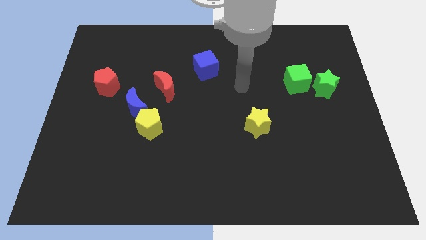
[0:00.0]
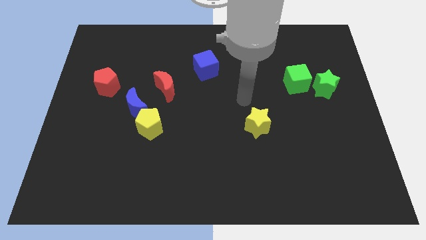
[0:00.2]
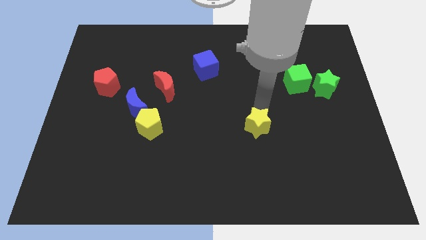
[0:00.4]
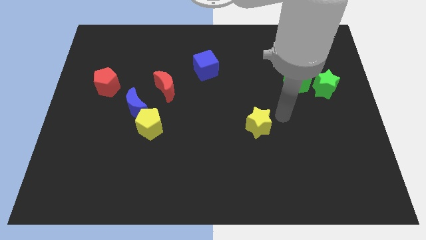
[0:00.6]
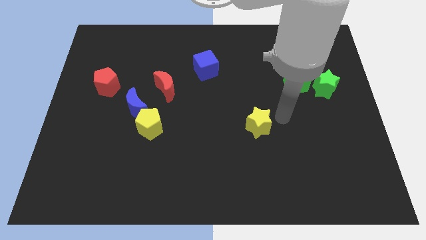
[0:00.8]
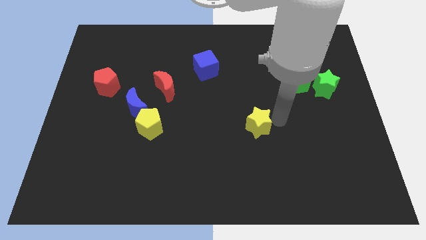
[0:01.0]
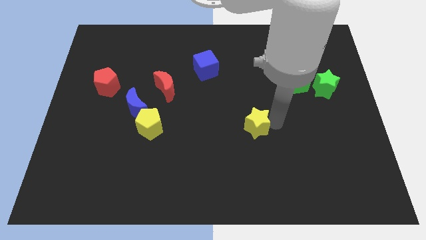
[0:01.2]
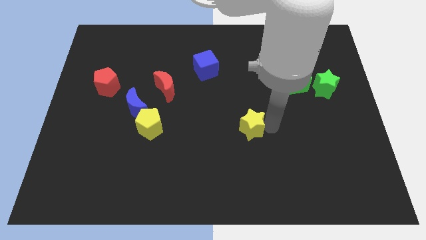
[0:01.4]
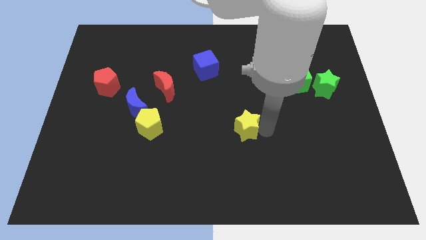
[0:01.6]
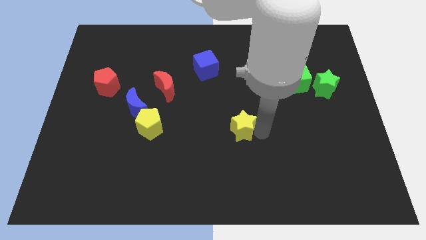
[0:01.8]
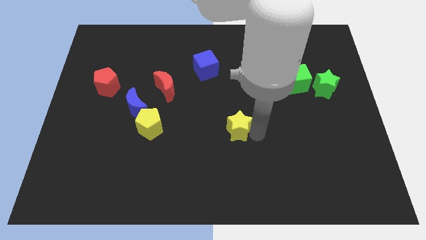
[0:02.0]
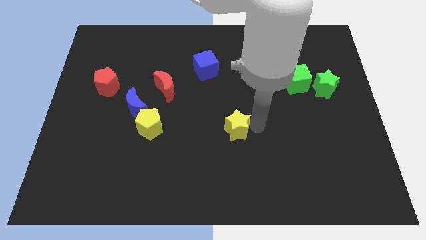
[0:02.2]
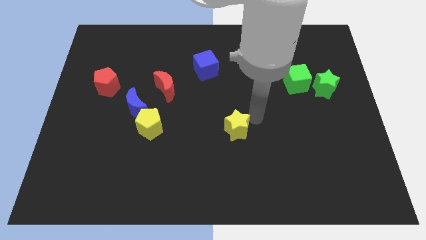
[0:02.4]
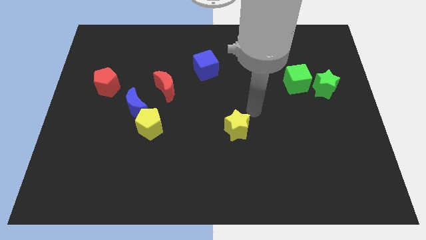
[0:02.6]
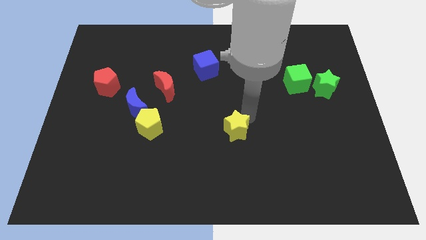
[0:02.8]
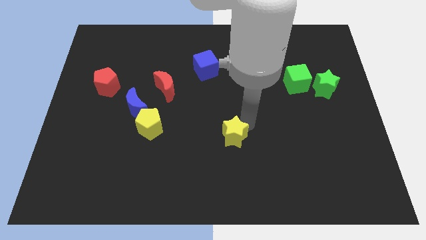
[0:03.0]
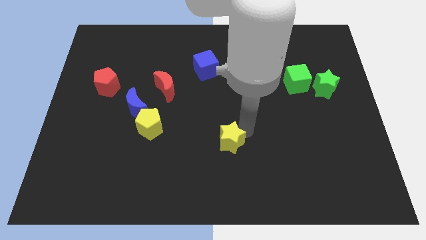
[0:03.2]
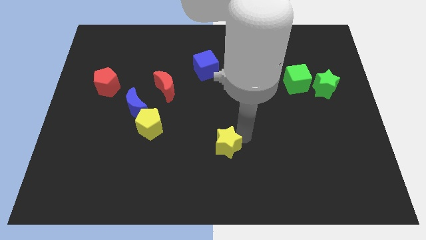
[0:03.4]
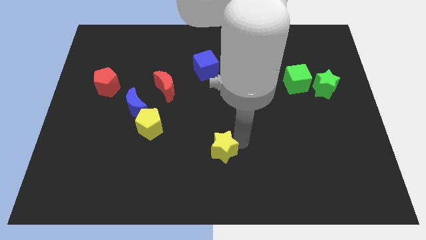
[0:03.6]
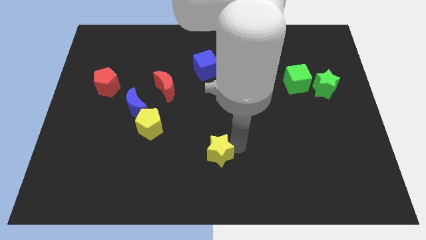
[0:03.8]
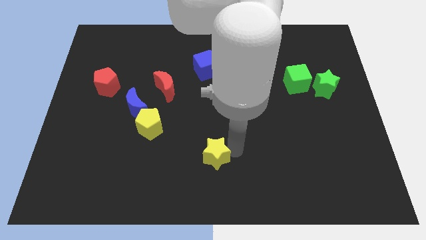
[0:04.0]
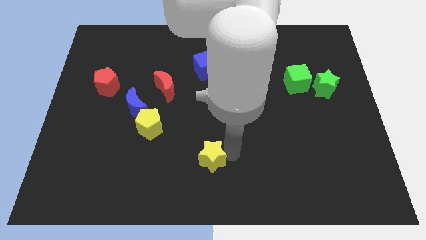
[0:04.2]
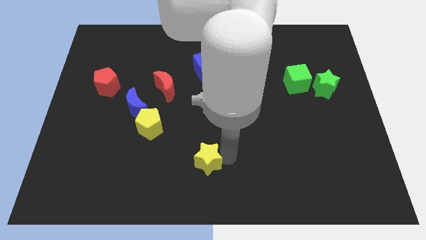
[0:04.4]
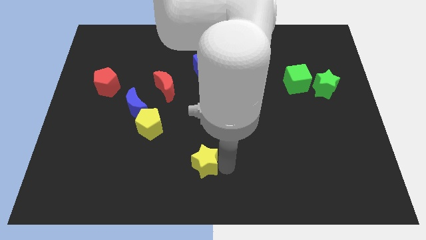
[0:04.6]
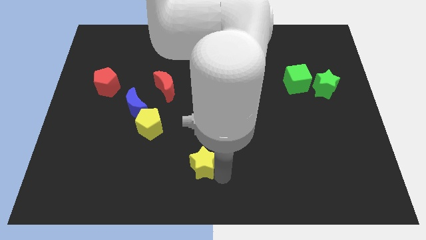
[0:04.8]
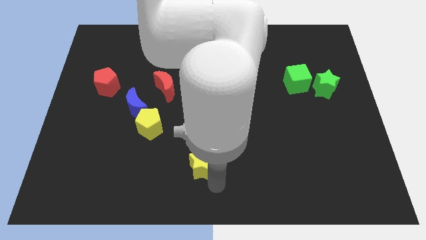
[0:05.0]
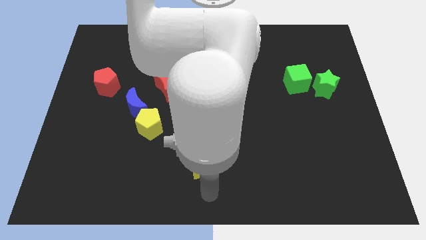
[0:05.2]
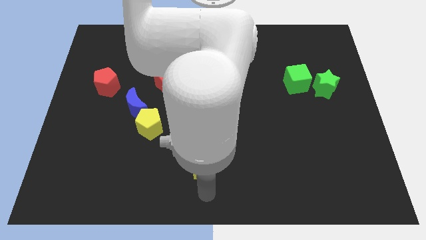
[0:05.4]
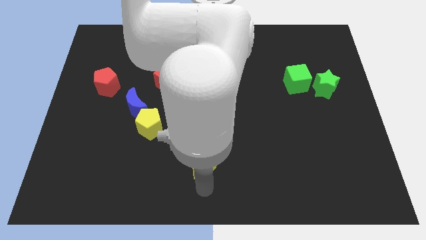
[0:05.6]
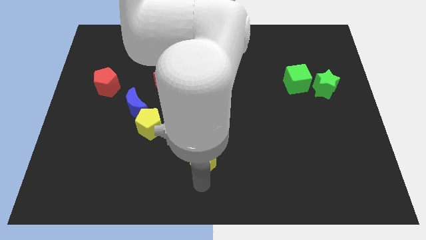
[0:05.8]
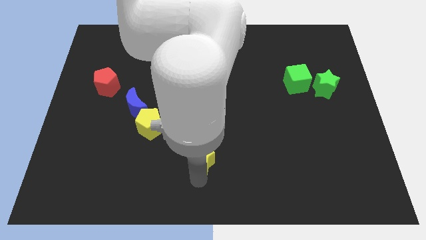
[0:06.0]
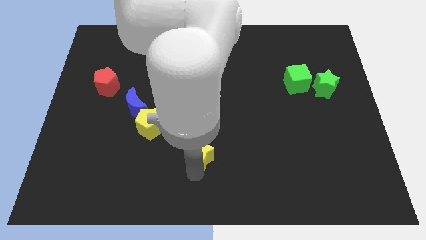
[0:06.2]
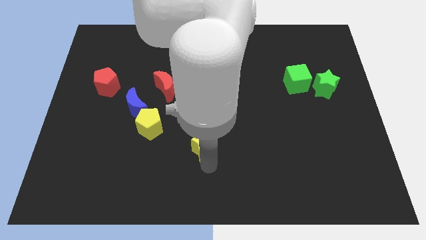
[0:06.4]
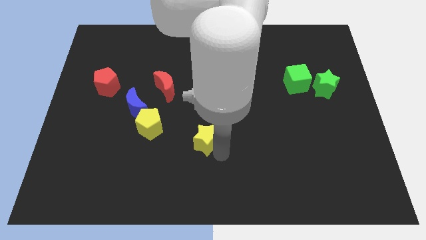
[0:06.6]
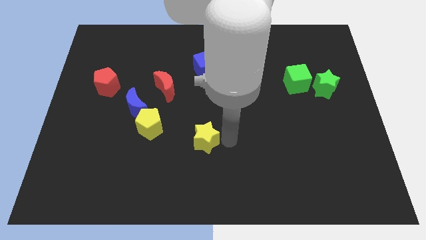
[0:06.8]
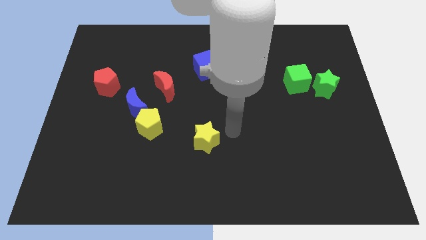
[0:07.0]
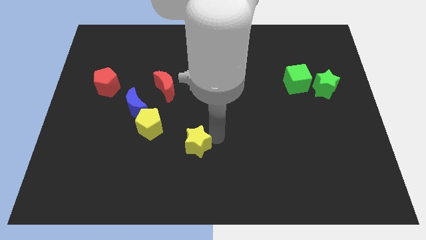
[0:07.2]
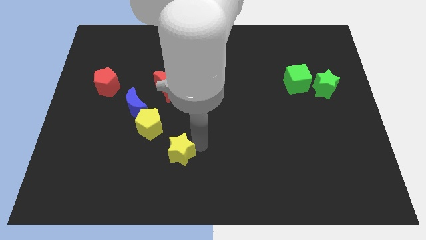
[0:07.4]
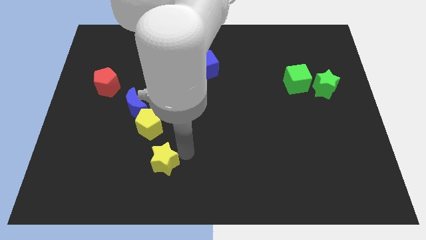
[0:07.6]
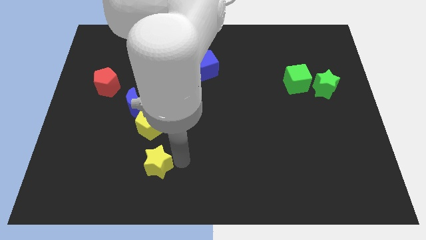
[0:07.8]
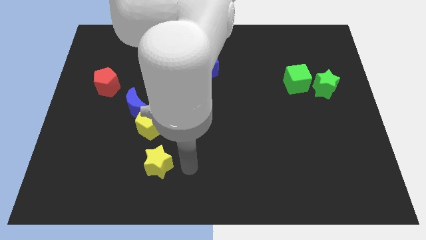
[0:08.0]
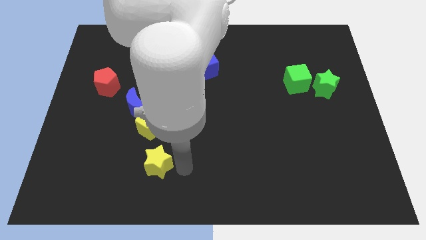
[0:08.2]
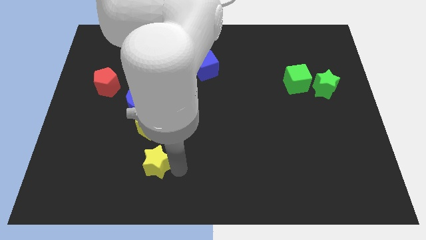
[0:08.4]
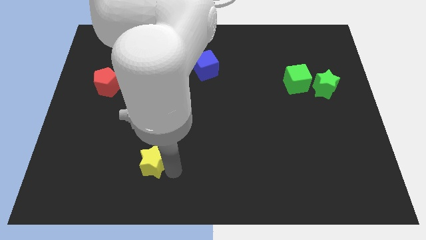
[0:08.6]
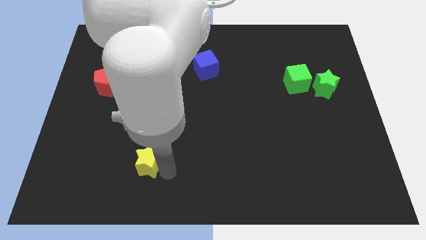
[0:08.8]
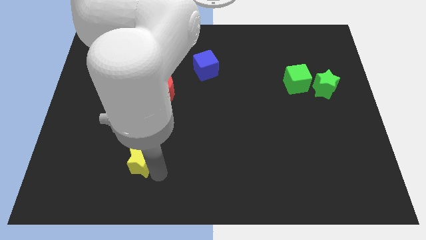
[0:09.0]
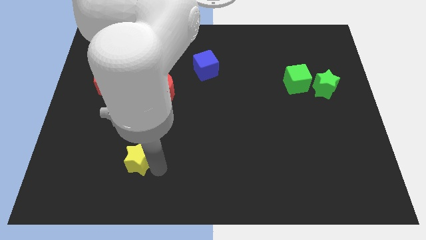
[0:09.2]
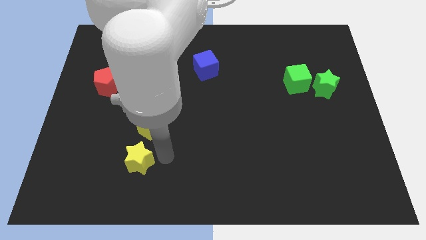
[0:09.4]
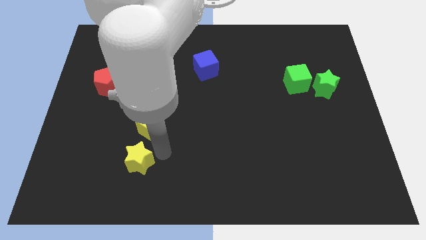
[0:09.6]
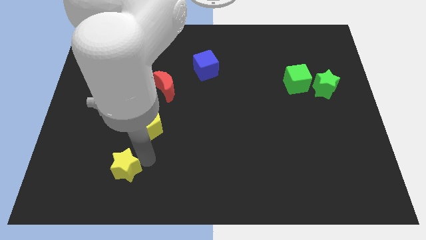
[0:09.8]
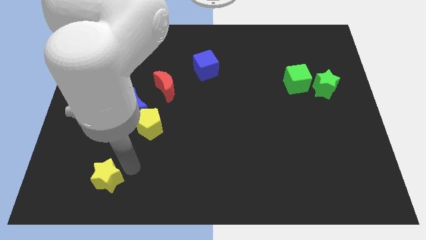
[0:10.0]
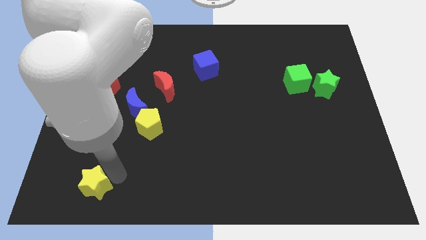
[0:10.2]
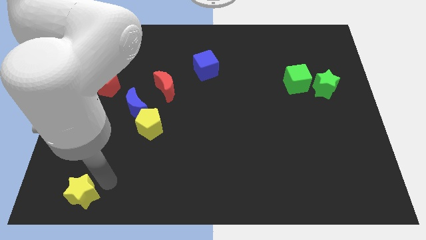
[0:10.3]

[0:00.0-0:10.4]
move the yellow star to the lower left corner

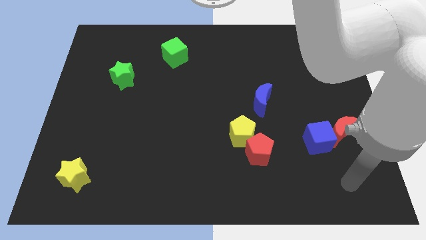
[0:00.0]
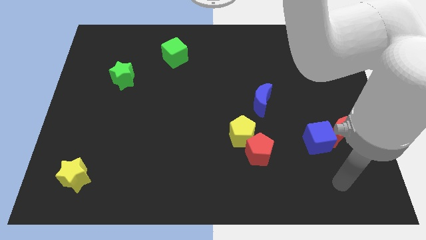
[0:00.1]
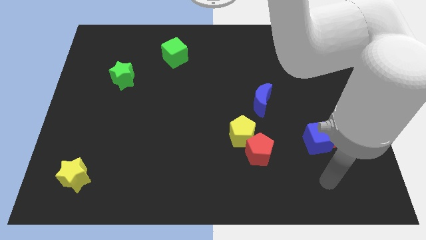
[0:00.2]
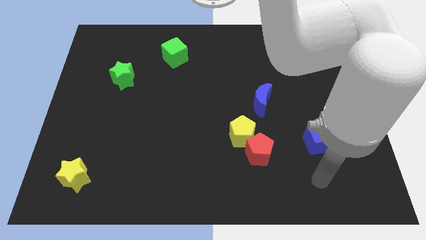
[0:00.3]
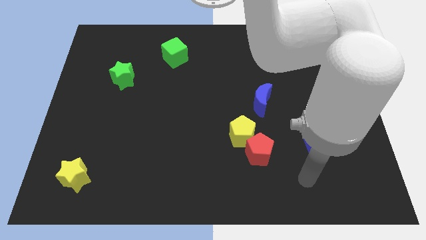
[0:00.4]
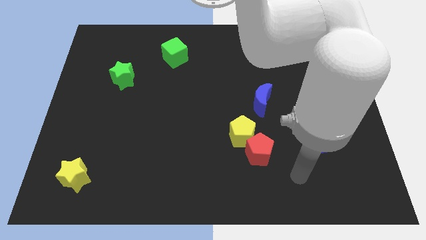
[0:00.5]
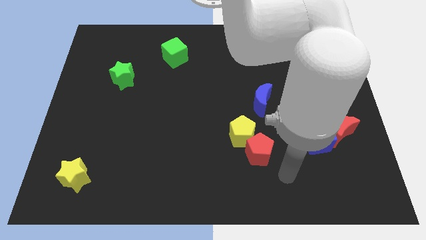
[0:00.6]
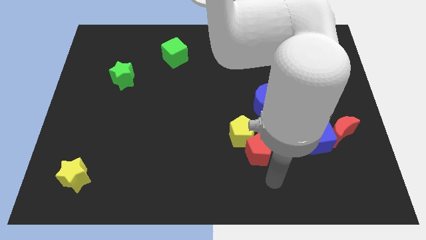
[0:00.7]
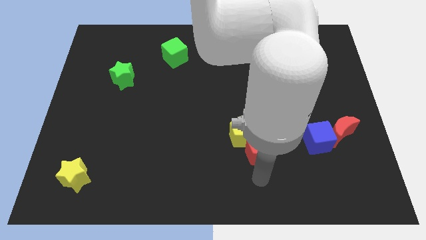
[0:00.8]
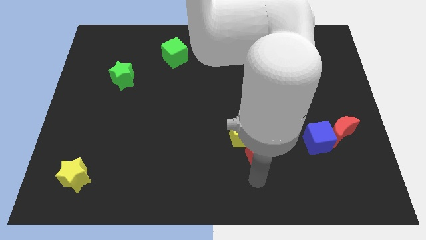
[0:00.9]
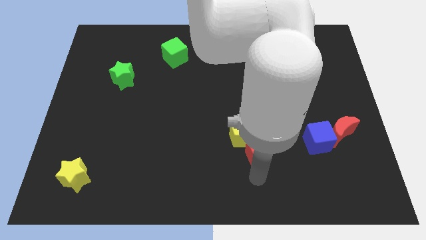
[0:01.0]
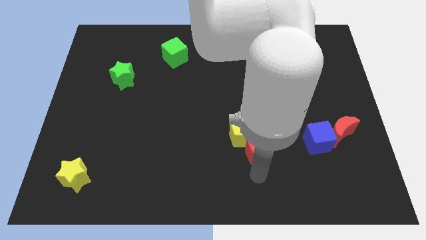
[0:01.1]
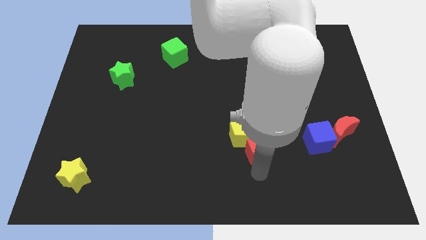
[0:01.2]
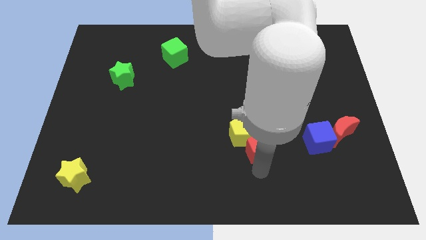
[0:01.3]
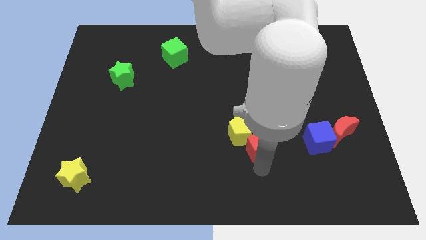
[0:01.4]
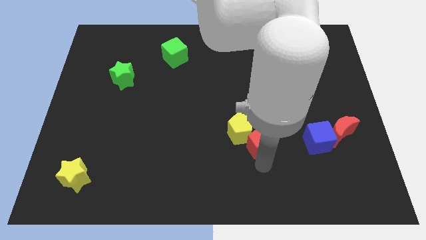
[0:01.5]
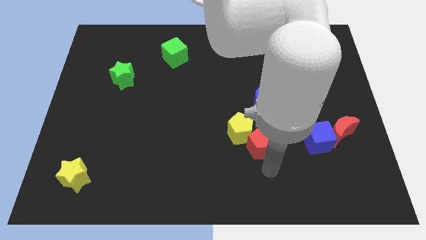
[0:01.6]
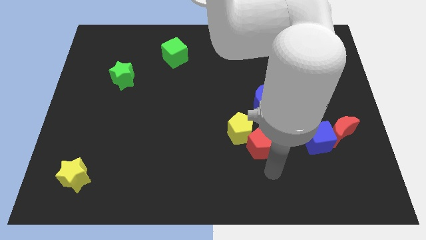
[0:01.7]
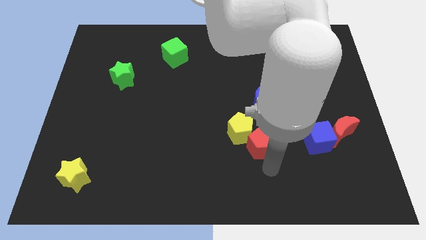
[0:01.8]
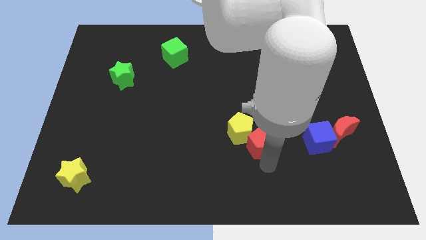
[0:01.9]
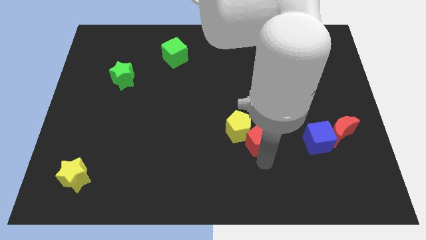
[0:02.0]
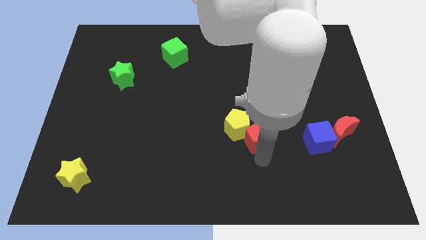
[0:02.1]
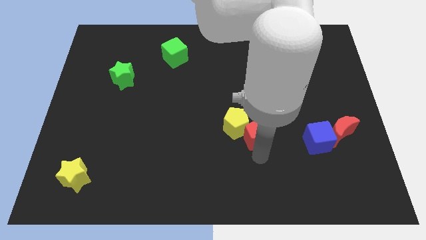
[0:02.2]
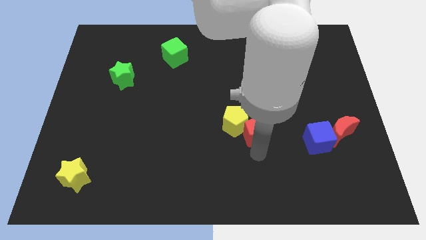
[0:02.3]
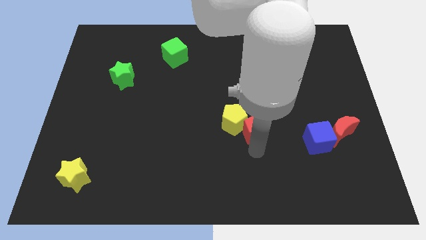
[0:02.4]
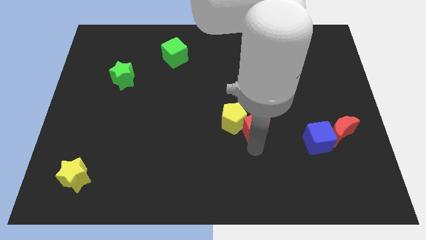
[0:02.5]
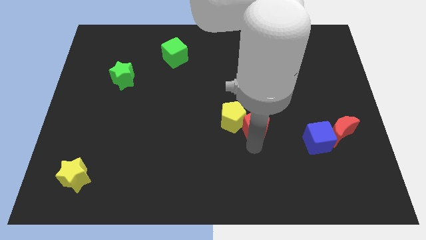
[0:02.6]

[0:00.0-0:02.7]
slide the red pentagon to the center
